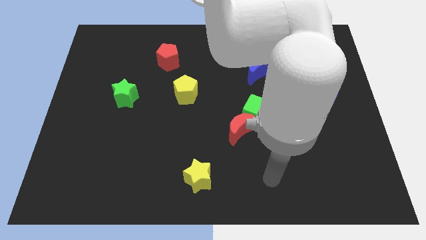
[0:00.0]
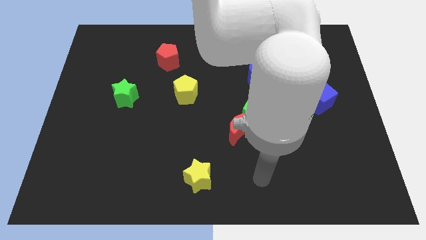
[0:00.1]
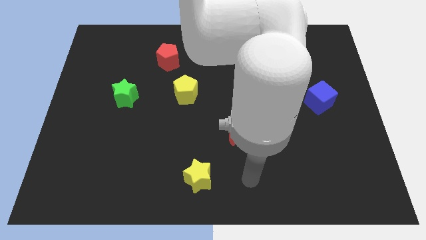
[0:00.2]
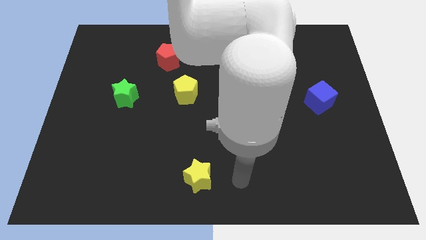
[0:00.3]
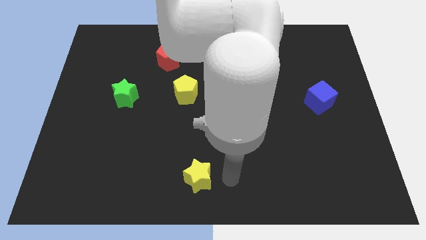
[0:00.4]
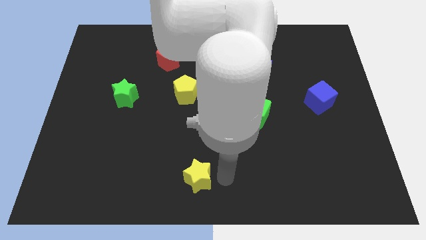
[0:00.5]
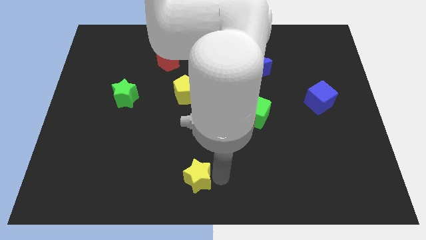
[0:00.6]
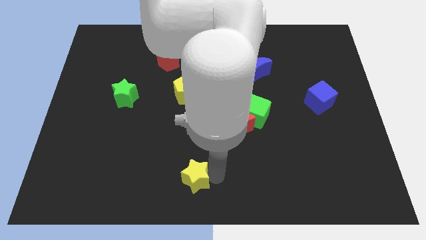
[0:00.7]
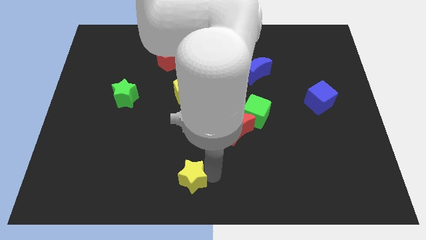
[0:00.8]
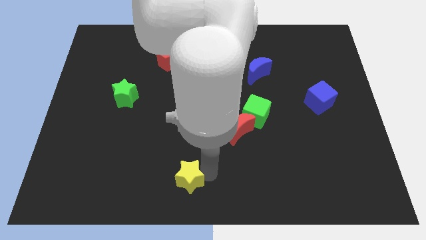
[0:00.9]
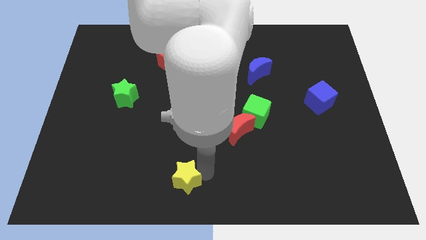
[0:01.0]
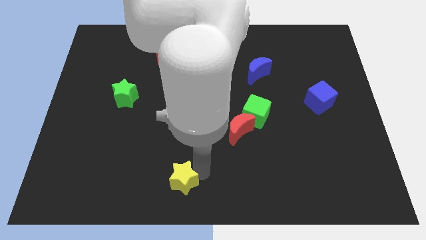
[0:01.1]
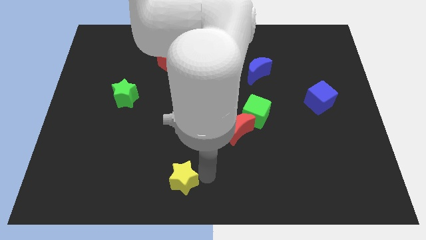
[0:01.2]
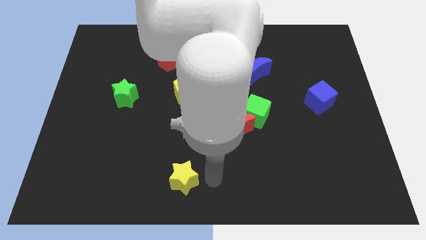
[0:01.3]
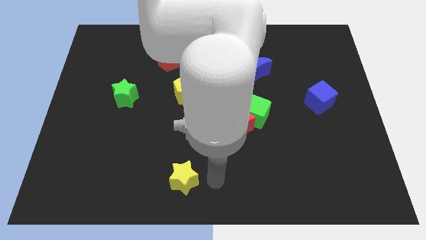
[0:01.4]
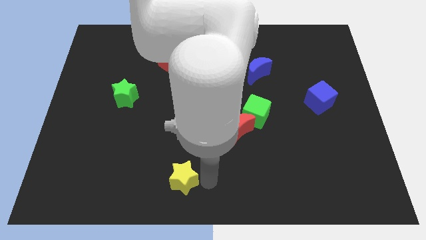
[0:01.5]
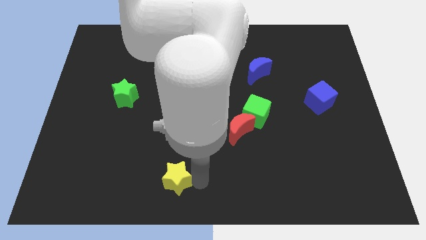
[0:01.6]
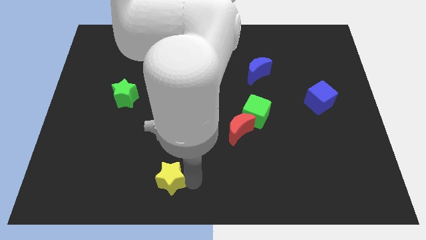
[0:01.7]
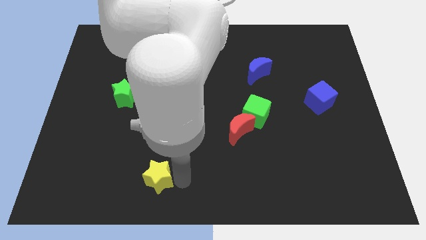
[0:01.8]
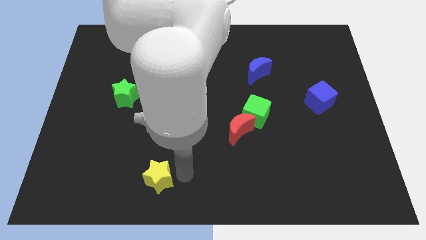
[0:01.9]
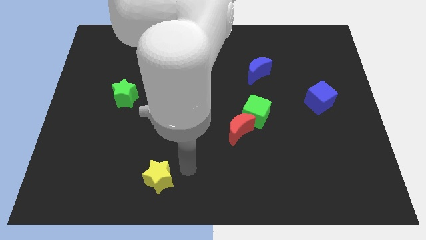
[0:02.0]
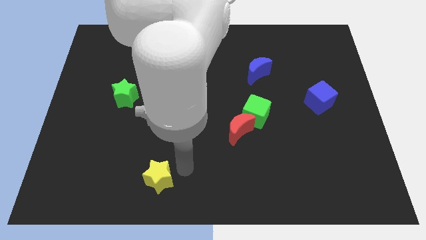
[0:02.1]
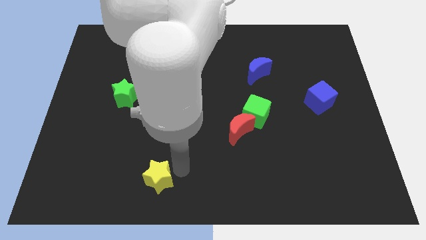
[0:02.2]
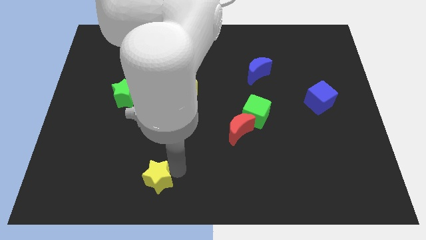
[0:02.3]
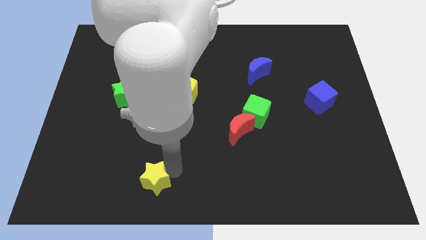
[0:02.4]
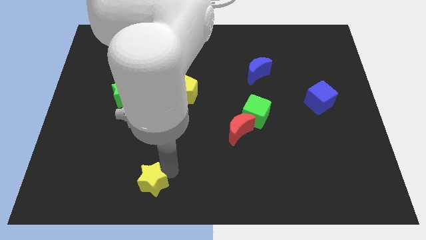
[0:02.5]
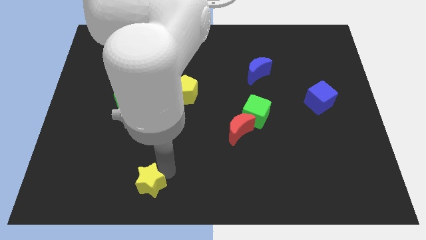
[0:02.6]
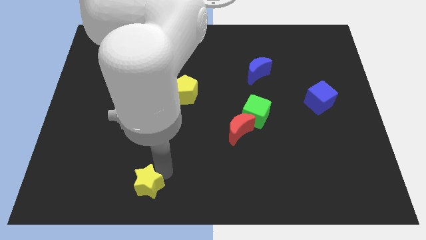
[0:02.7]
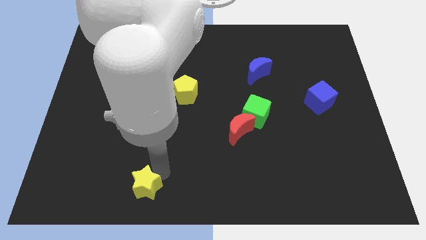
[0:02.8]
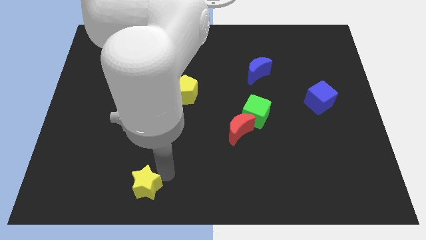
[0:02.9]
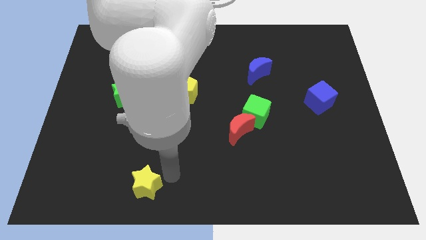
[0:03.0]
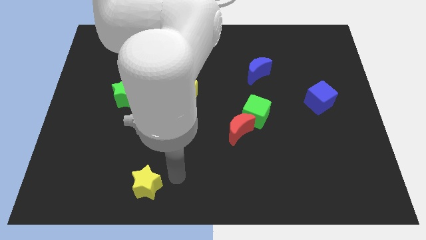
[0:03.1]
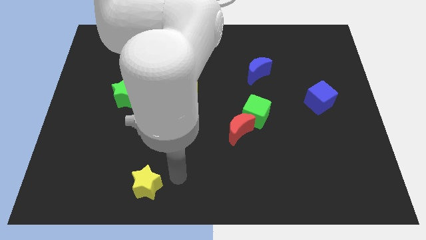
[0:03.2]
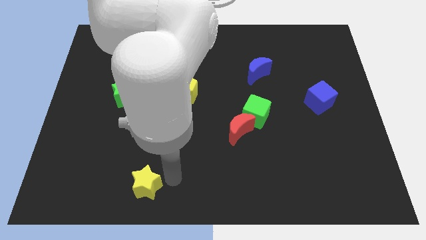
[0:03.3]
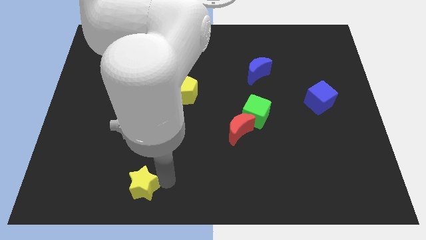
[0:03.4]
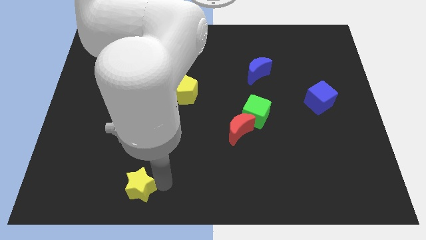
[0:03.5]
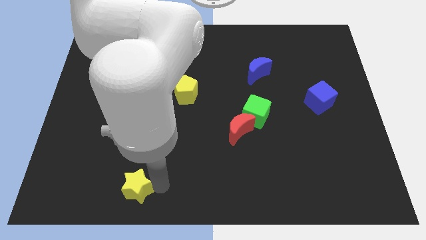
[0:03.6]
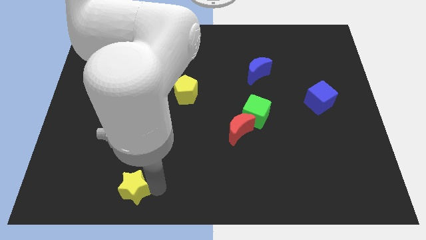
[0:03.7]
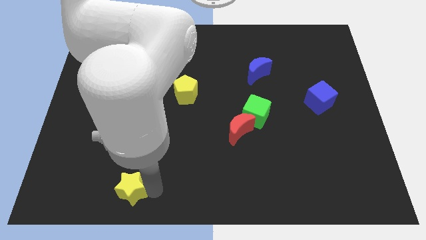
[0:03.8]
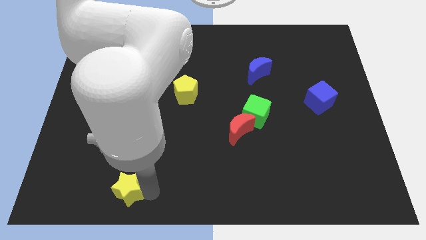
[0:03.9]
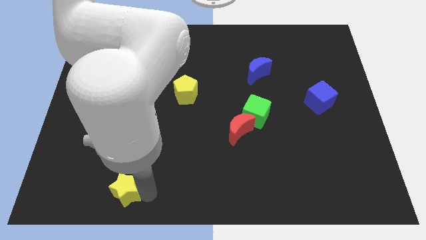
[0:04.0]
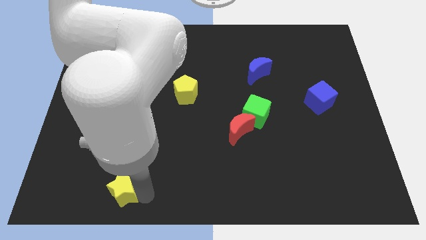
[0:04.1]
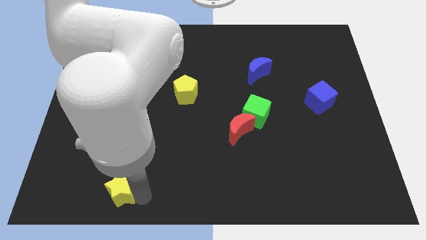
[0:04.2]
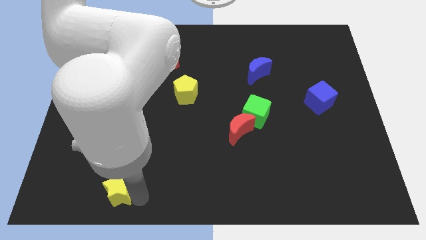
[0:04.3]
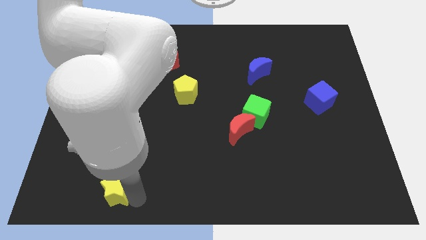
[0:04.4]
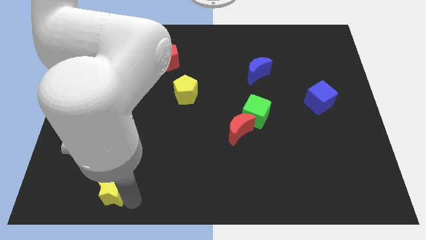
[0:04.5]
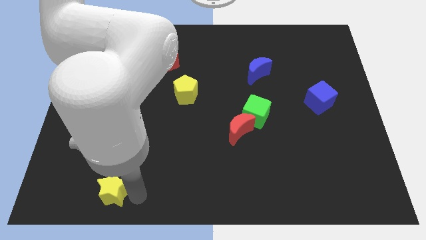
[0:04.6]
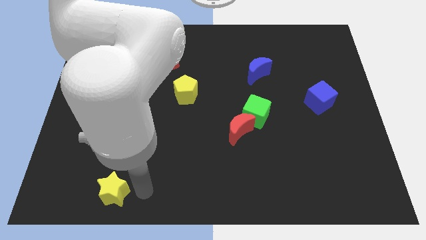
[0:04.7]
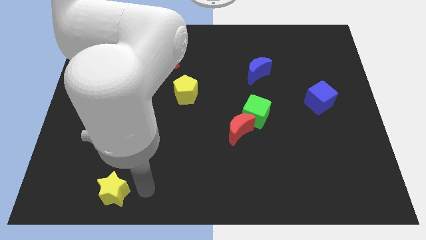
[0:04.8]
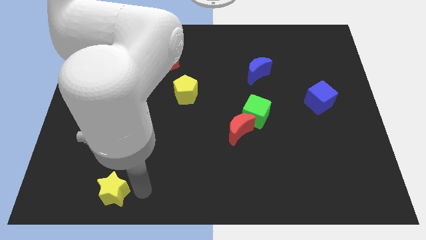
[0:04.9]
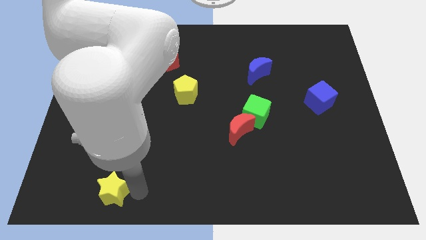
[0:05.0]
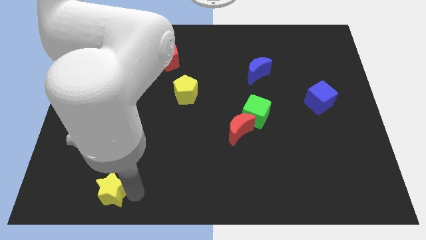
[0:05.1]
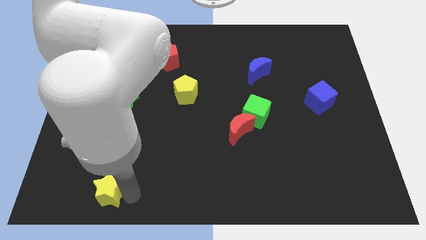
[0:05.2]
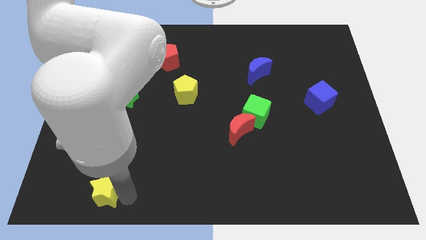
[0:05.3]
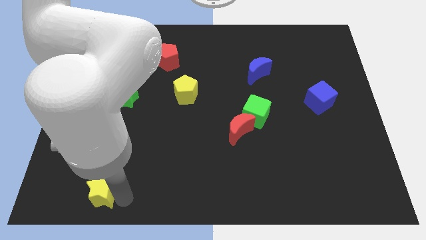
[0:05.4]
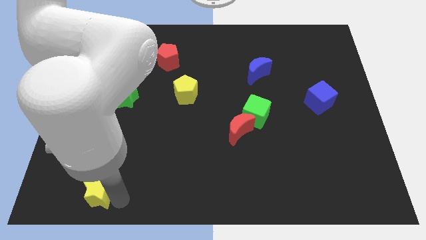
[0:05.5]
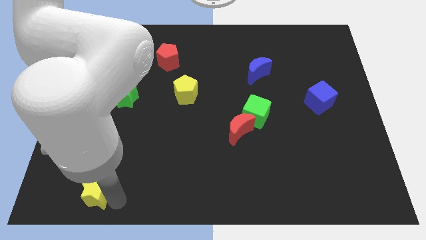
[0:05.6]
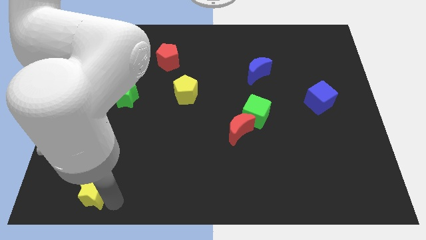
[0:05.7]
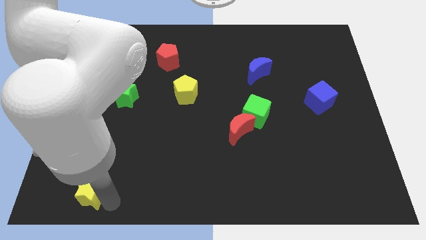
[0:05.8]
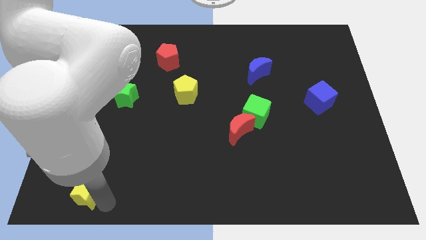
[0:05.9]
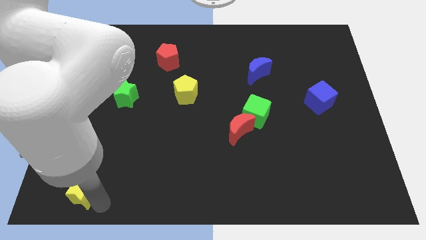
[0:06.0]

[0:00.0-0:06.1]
slide the yellow star to the bottom left
